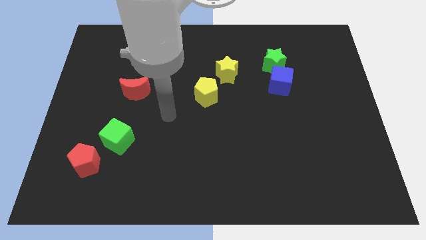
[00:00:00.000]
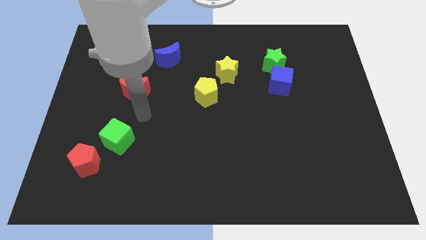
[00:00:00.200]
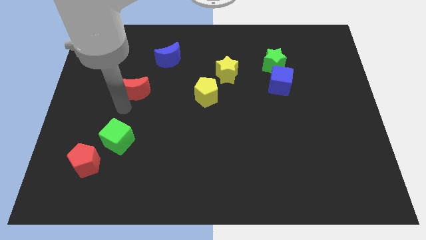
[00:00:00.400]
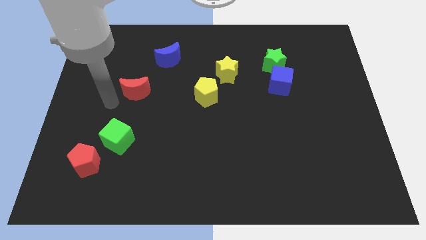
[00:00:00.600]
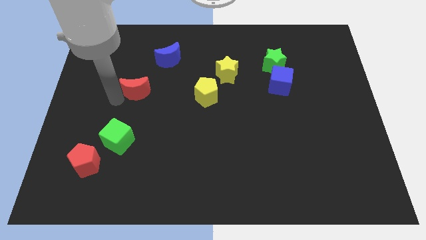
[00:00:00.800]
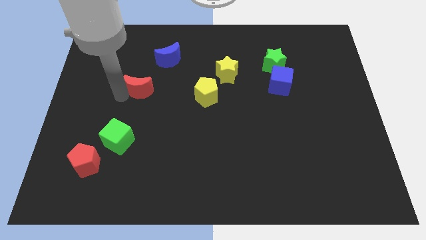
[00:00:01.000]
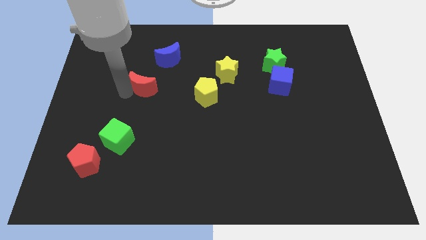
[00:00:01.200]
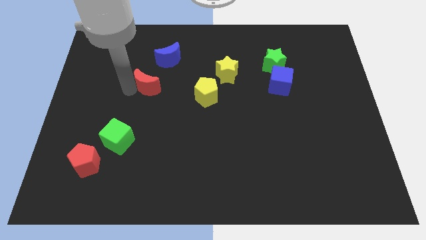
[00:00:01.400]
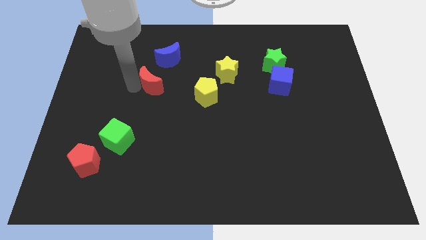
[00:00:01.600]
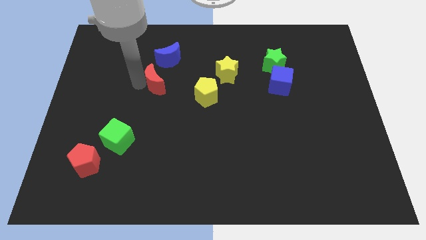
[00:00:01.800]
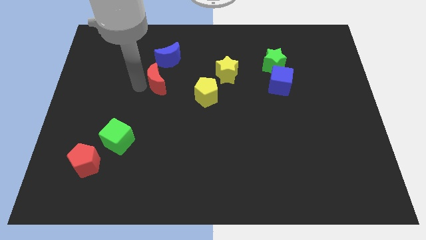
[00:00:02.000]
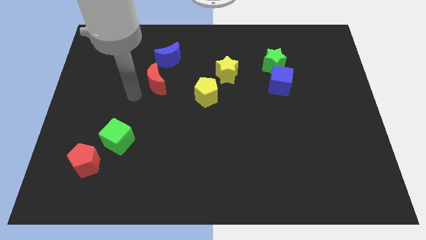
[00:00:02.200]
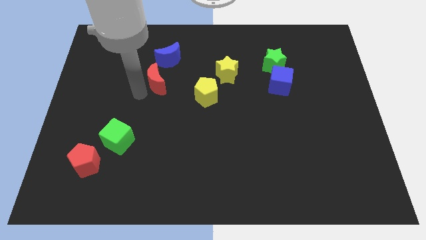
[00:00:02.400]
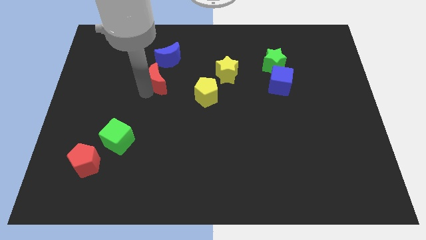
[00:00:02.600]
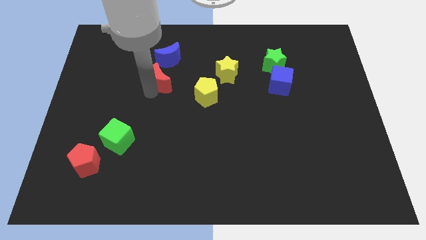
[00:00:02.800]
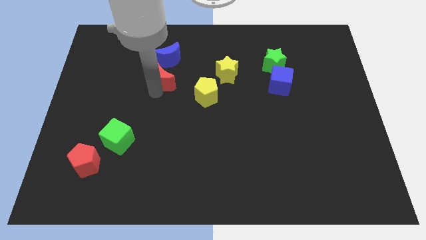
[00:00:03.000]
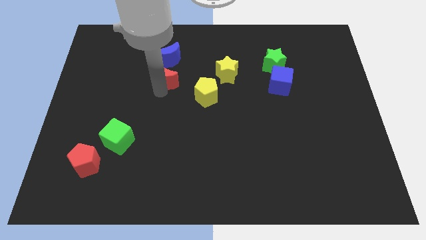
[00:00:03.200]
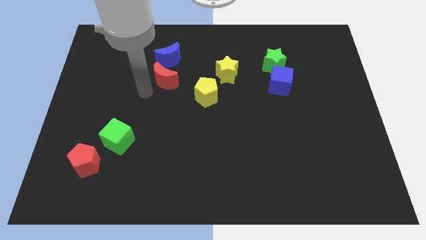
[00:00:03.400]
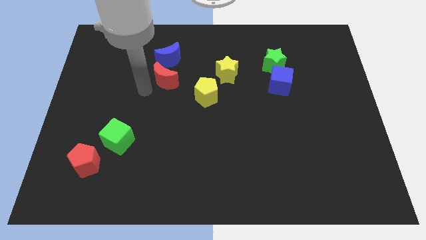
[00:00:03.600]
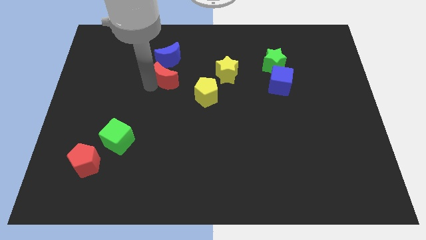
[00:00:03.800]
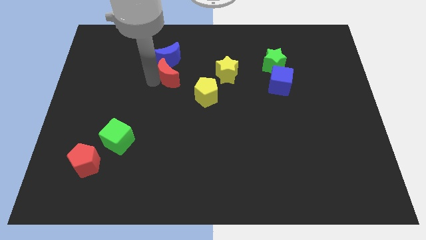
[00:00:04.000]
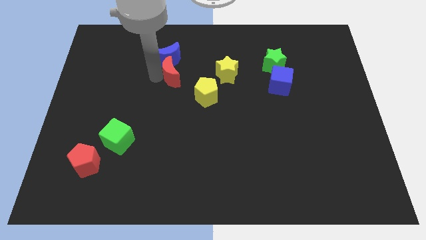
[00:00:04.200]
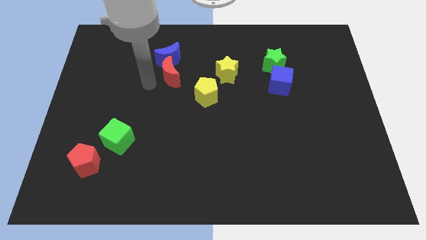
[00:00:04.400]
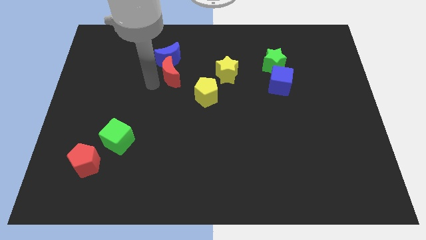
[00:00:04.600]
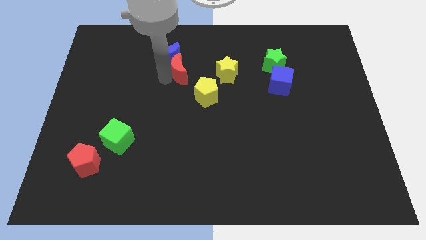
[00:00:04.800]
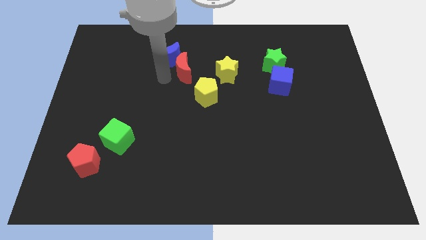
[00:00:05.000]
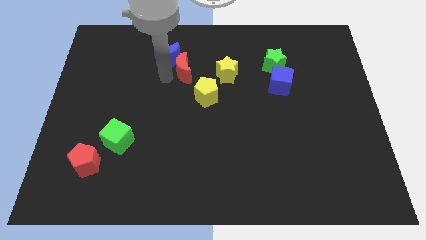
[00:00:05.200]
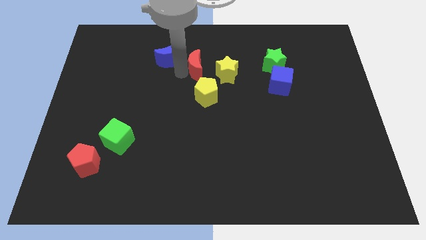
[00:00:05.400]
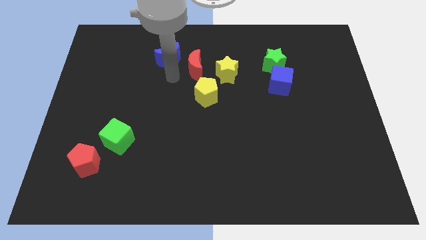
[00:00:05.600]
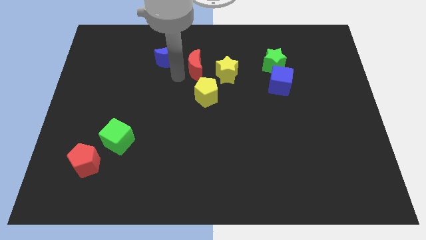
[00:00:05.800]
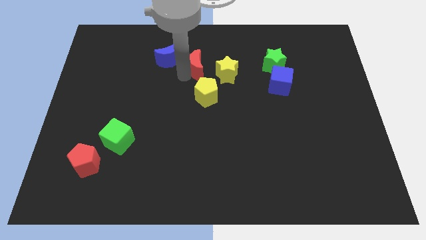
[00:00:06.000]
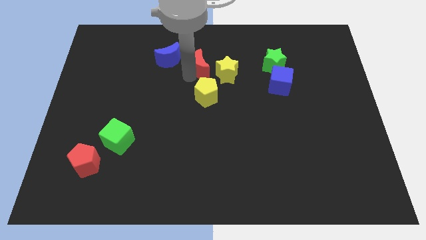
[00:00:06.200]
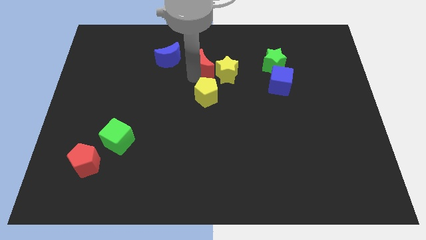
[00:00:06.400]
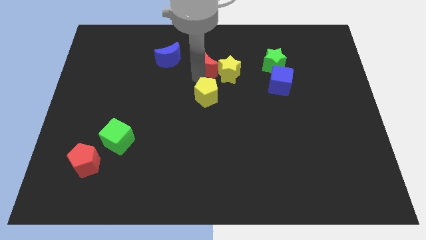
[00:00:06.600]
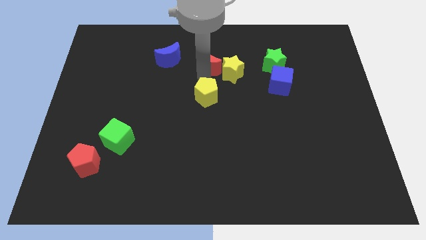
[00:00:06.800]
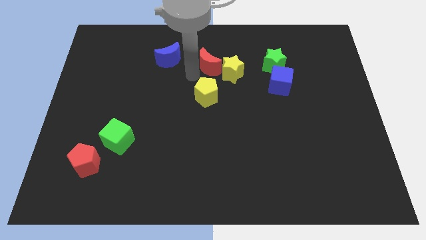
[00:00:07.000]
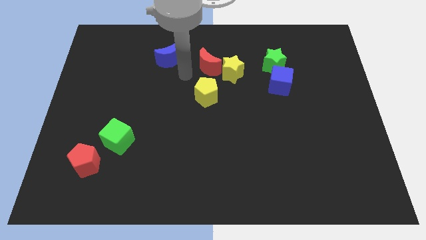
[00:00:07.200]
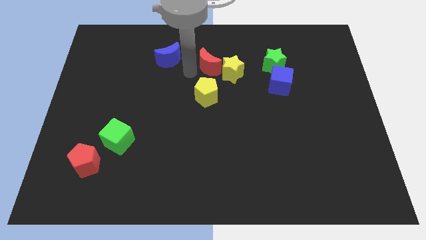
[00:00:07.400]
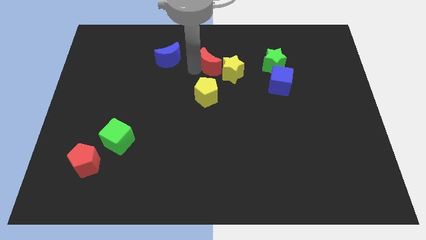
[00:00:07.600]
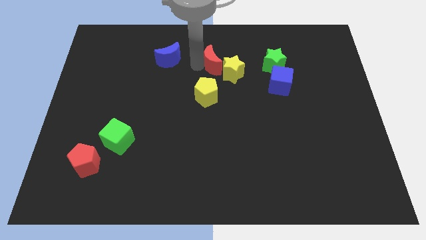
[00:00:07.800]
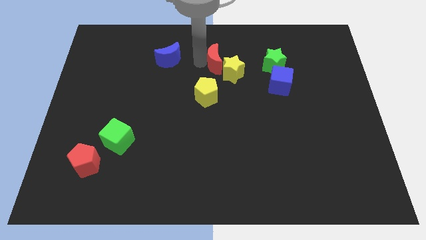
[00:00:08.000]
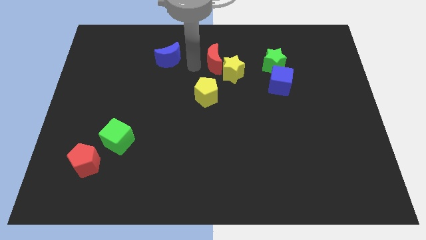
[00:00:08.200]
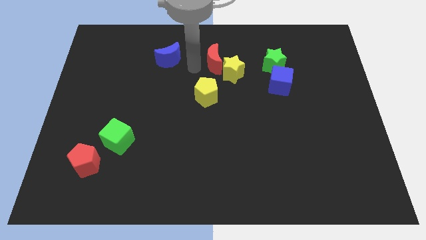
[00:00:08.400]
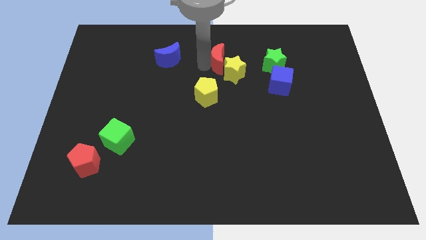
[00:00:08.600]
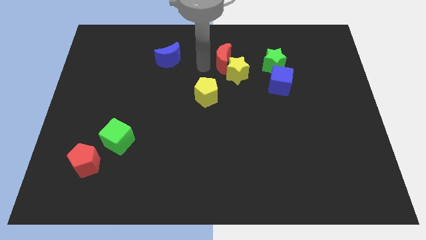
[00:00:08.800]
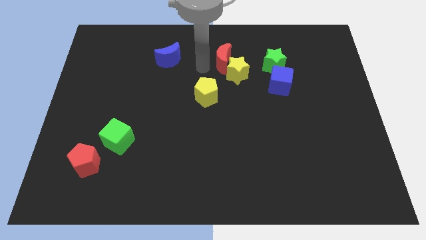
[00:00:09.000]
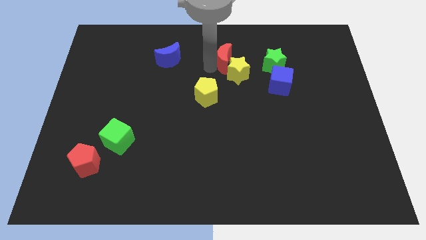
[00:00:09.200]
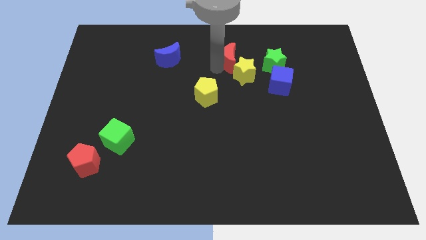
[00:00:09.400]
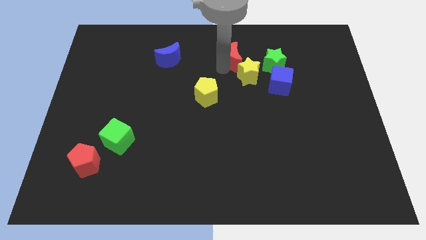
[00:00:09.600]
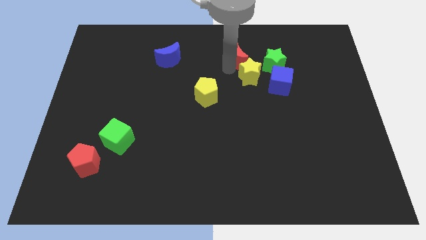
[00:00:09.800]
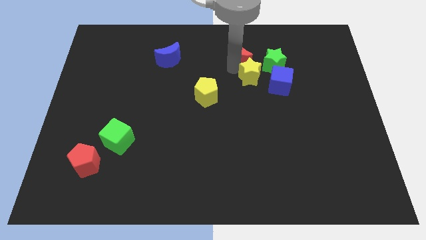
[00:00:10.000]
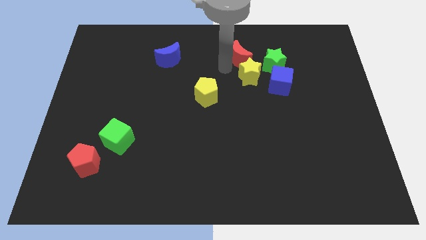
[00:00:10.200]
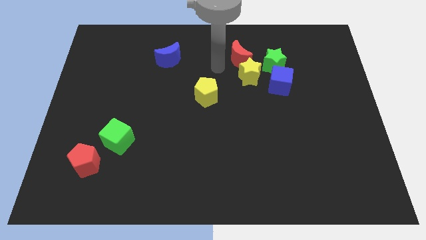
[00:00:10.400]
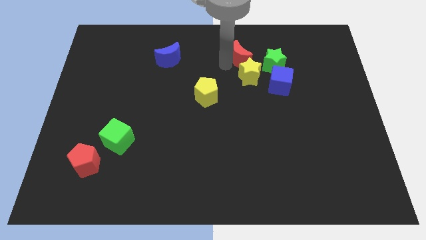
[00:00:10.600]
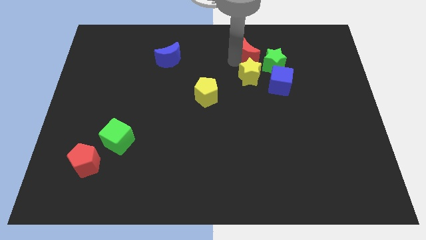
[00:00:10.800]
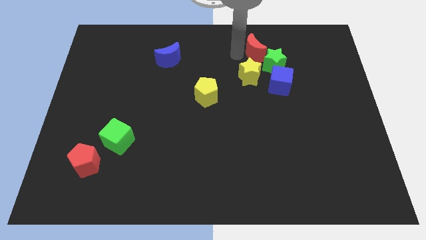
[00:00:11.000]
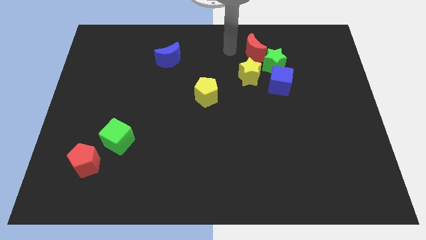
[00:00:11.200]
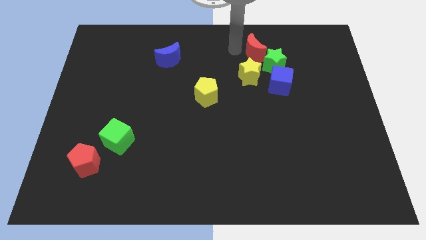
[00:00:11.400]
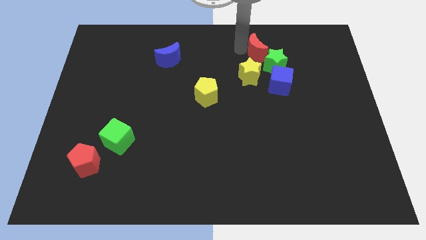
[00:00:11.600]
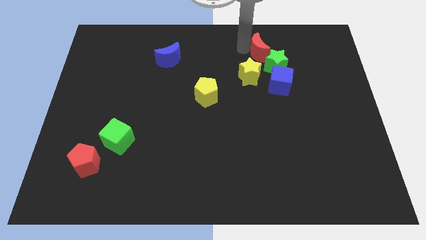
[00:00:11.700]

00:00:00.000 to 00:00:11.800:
move the red moon to the top of the blue cube

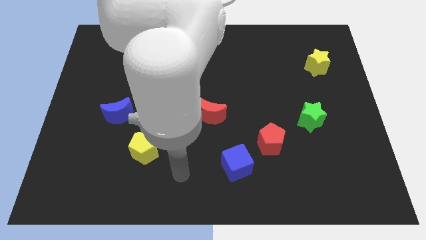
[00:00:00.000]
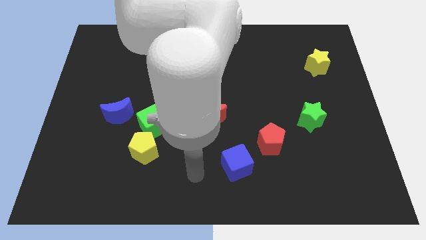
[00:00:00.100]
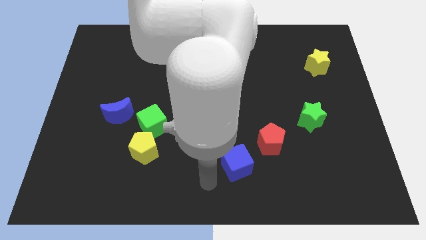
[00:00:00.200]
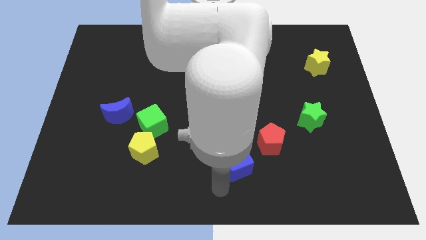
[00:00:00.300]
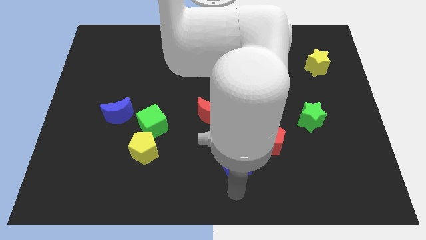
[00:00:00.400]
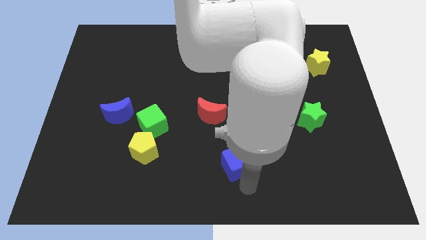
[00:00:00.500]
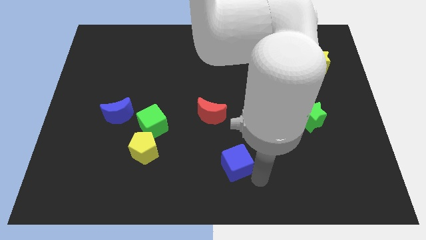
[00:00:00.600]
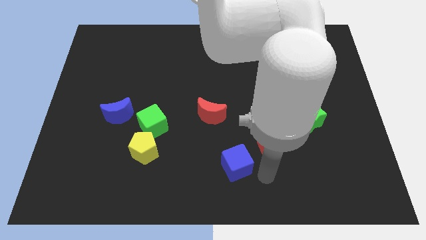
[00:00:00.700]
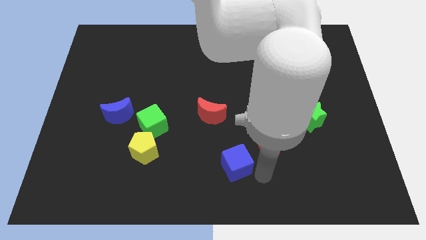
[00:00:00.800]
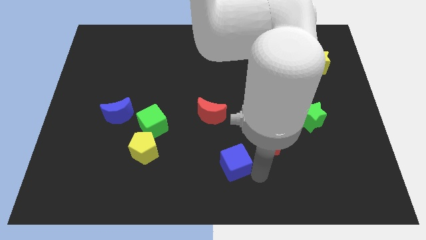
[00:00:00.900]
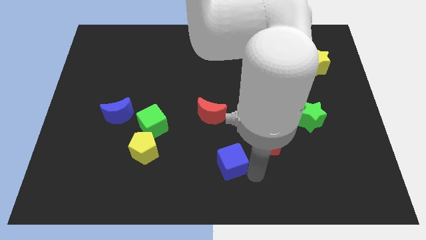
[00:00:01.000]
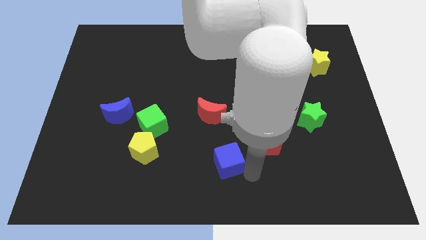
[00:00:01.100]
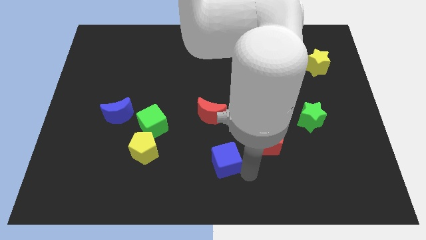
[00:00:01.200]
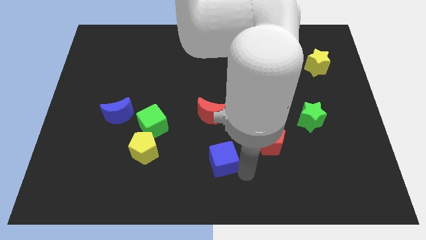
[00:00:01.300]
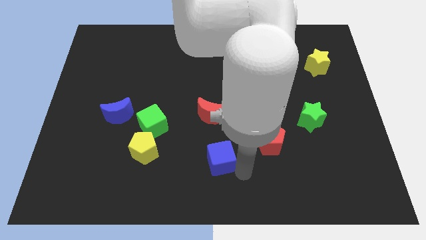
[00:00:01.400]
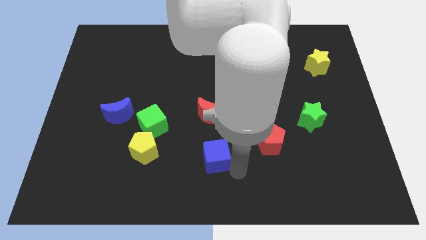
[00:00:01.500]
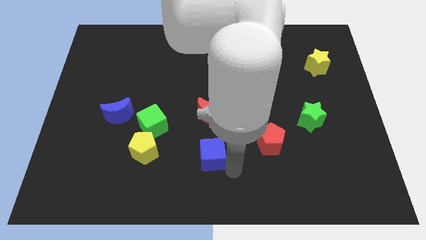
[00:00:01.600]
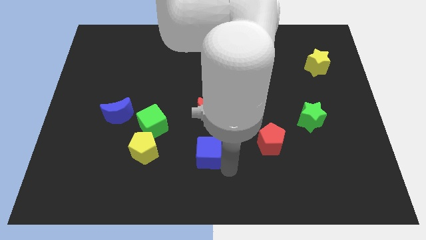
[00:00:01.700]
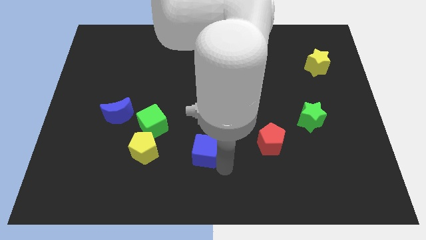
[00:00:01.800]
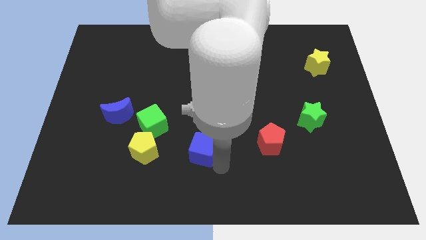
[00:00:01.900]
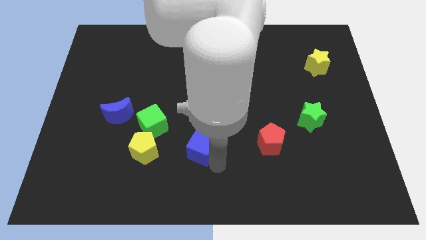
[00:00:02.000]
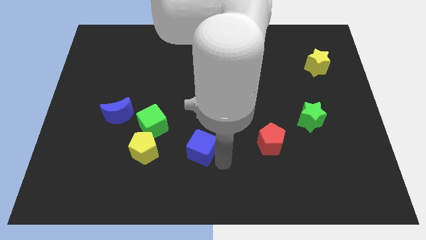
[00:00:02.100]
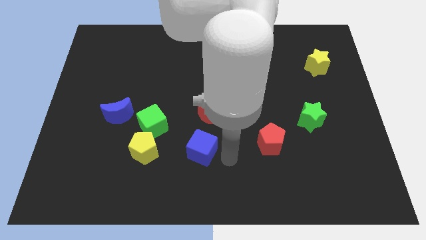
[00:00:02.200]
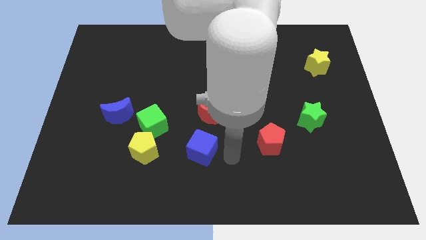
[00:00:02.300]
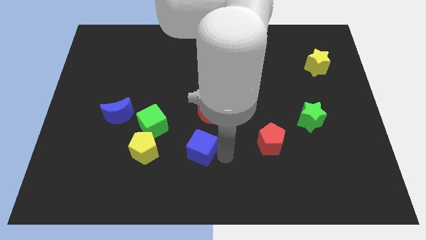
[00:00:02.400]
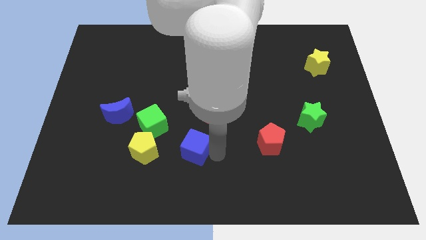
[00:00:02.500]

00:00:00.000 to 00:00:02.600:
move the blue cube to the bottom right of the green cube
